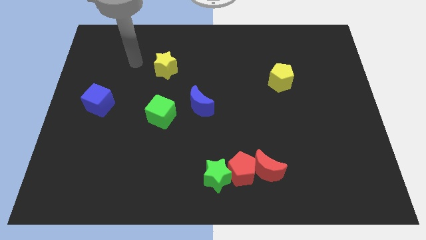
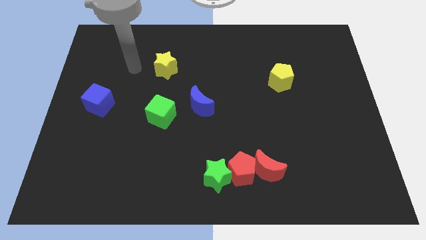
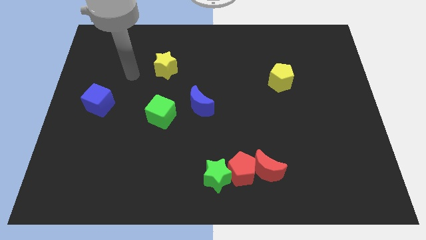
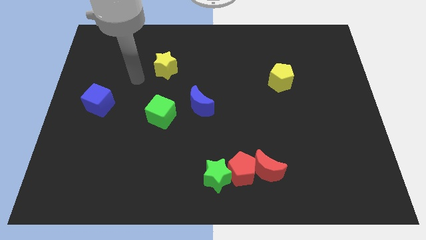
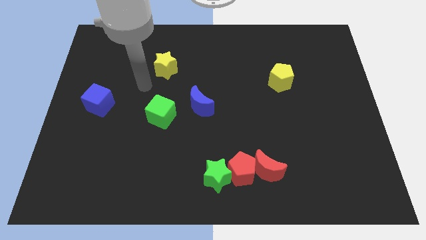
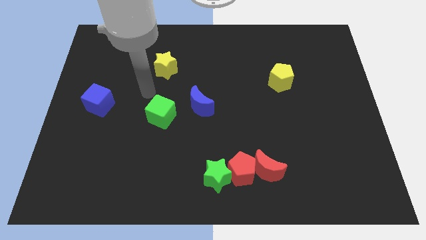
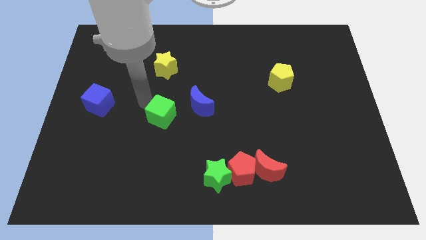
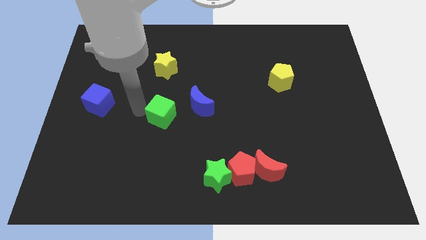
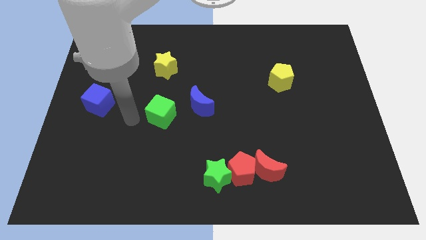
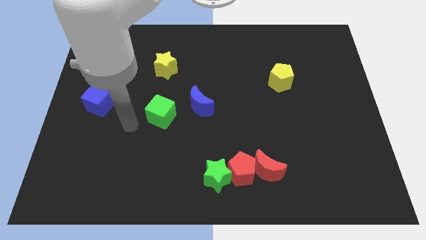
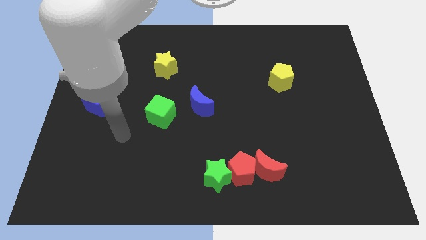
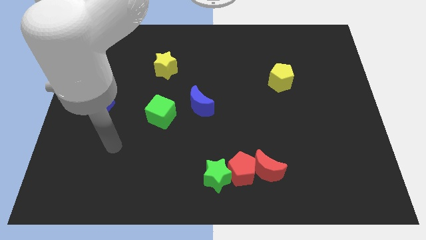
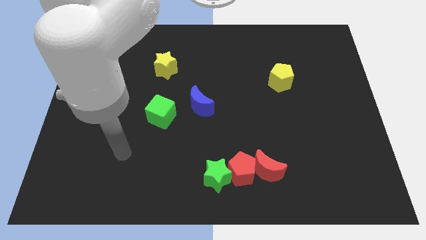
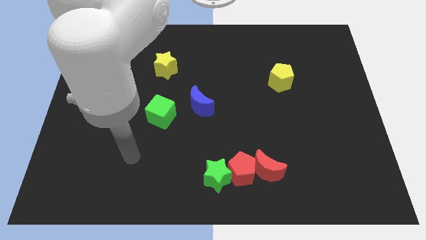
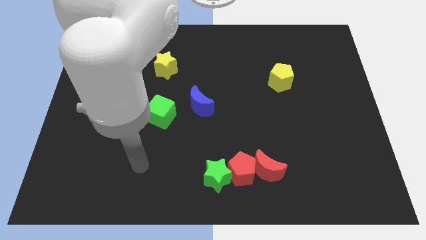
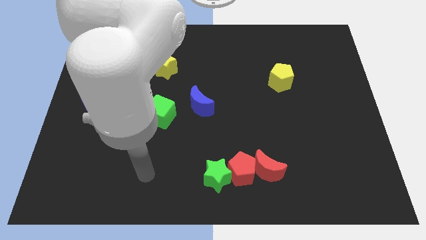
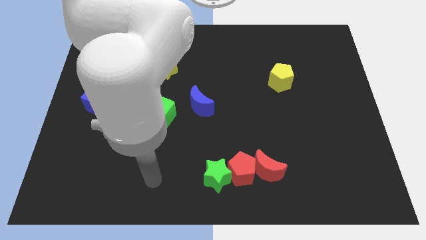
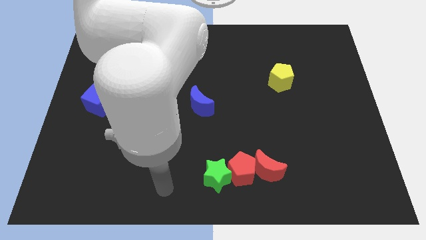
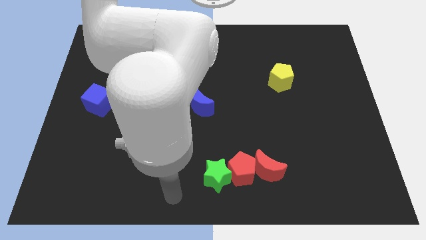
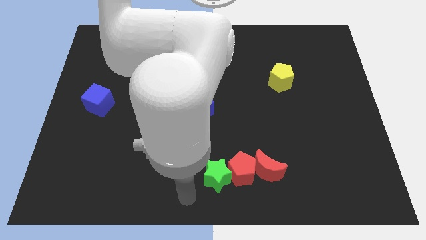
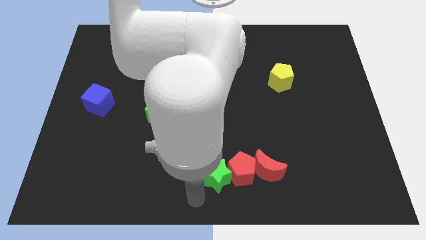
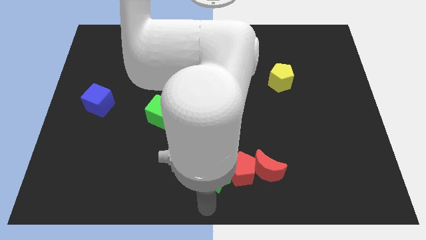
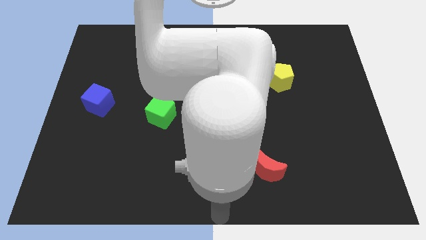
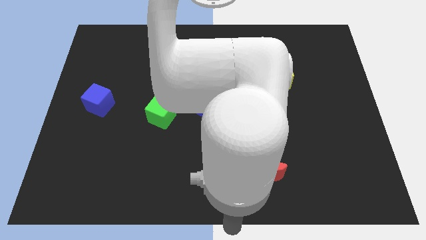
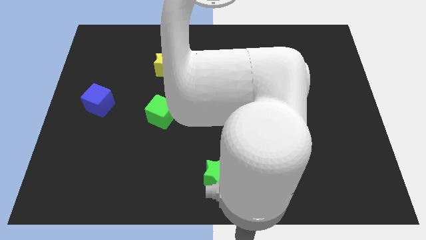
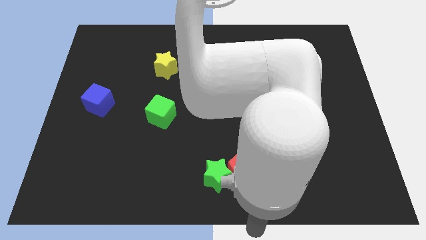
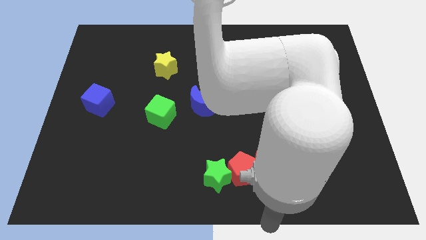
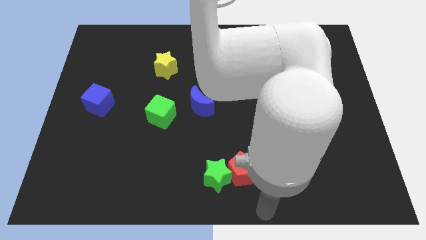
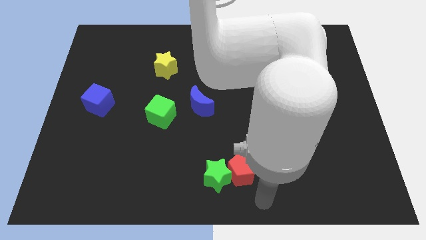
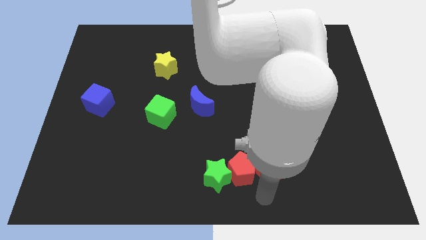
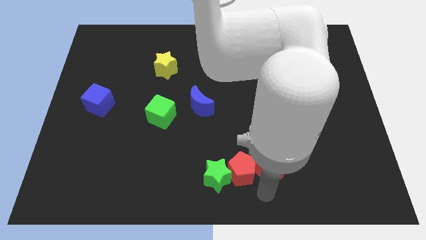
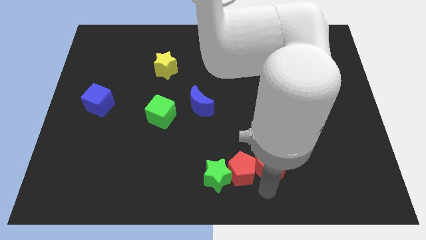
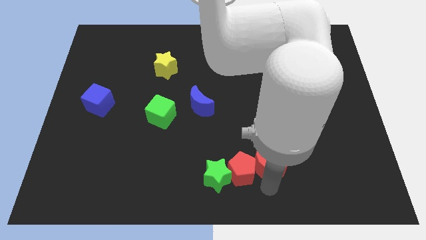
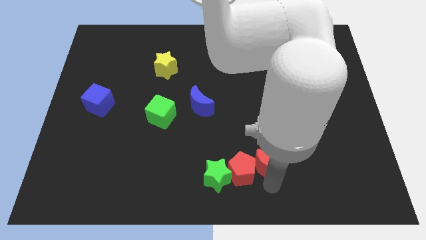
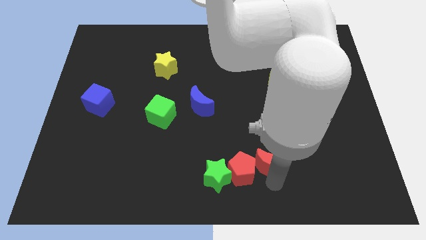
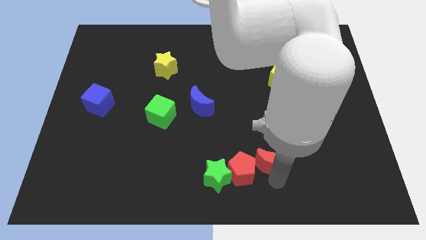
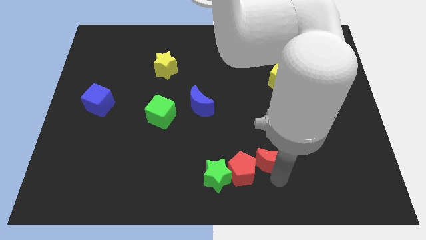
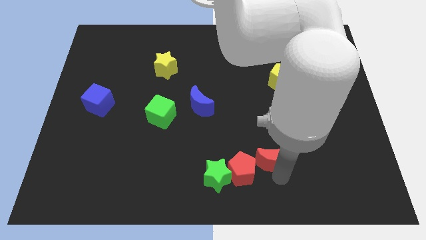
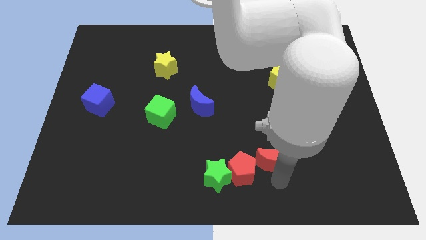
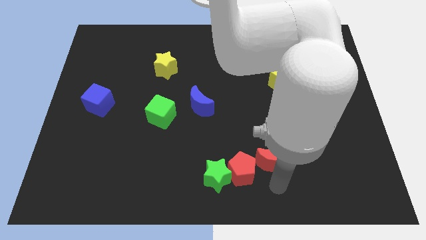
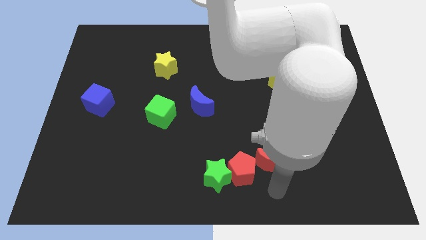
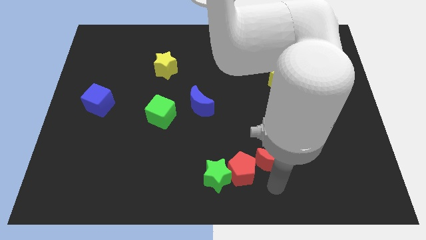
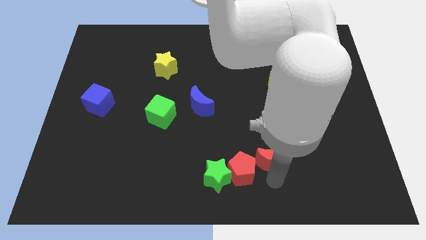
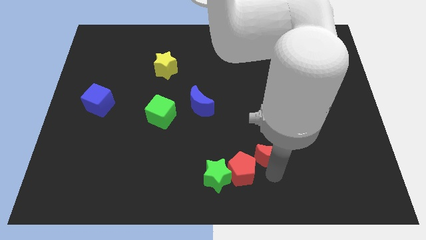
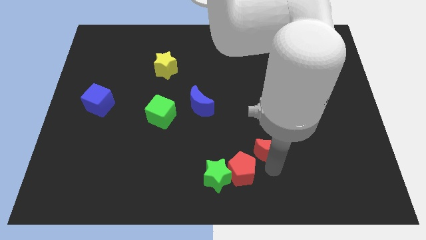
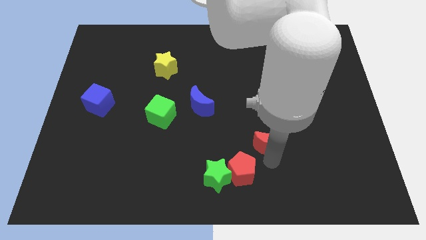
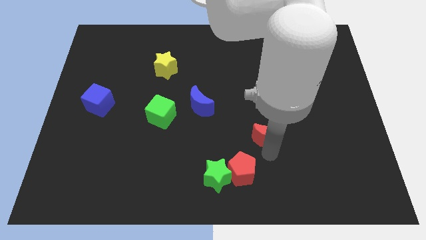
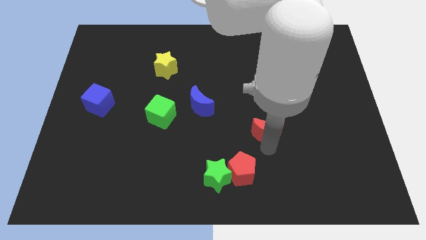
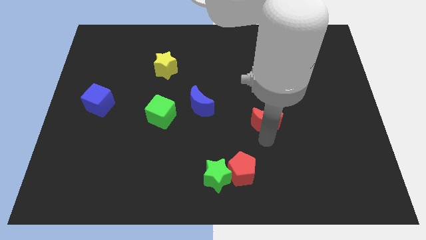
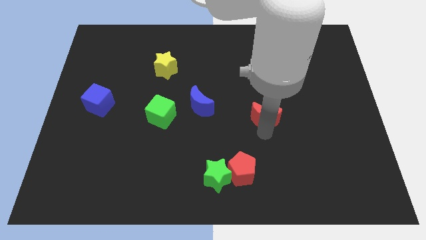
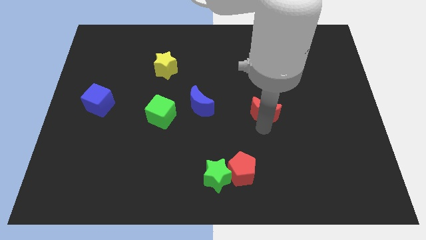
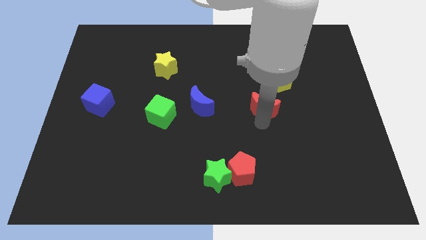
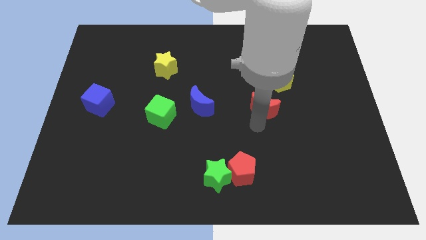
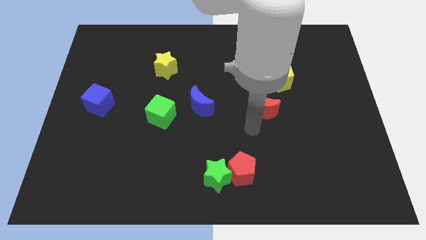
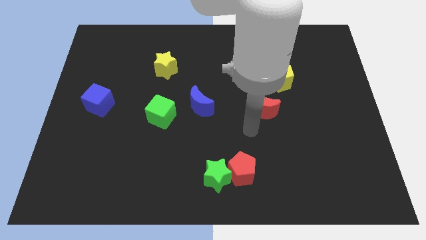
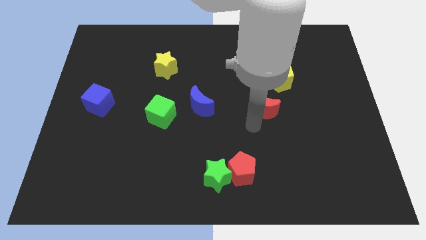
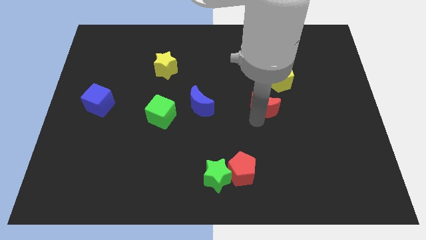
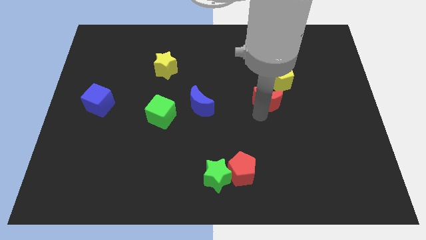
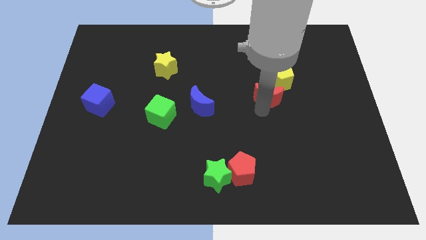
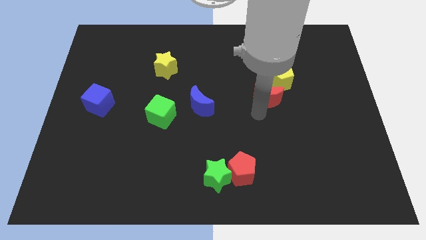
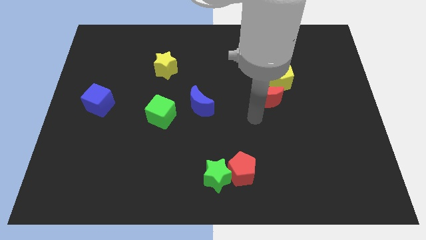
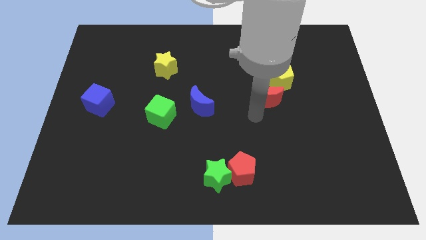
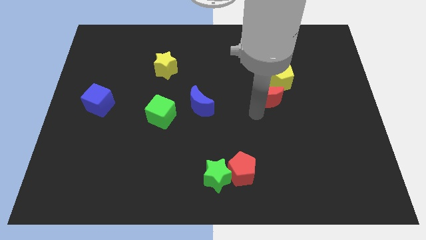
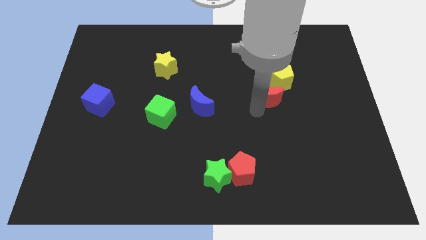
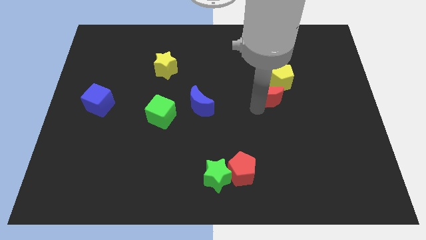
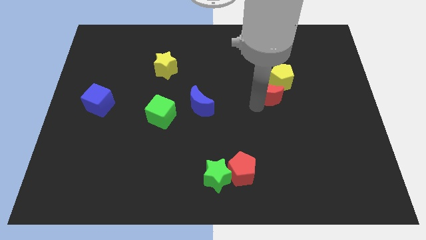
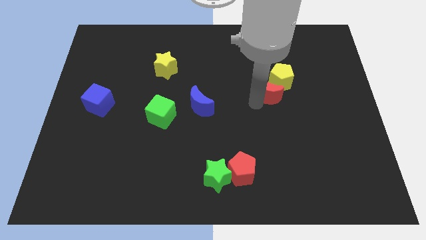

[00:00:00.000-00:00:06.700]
move the red moon to the yellow pentagon

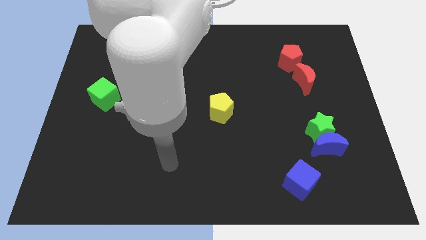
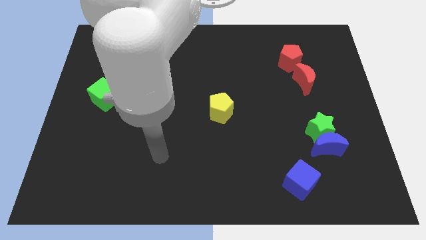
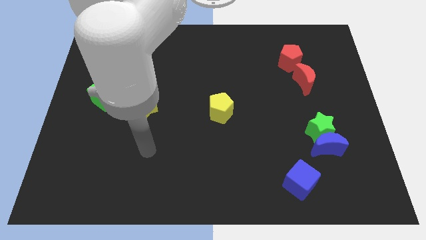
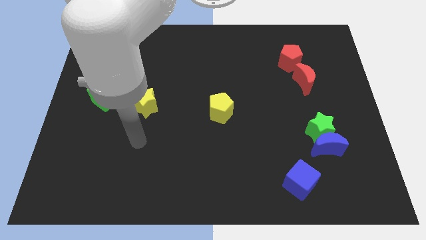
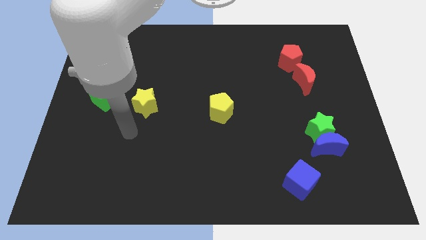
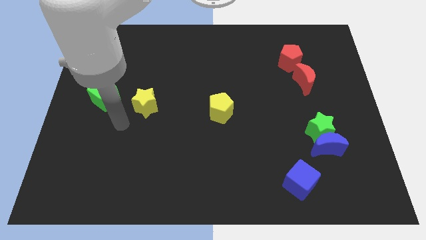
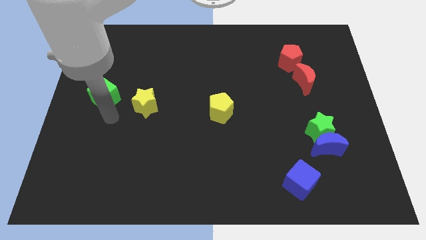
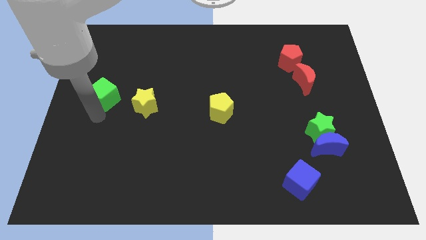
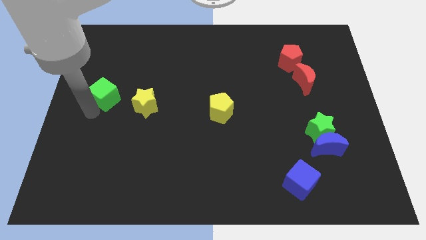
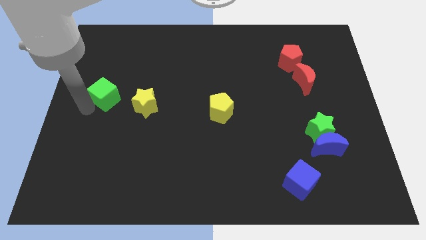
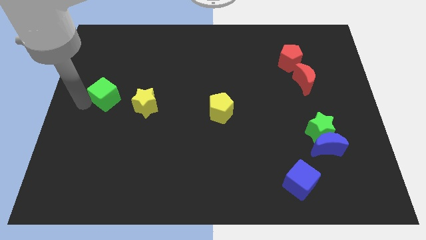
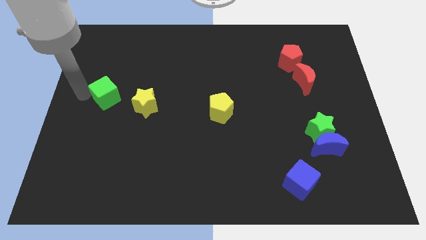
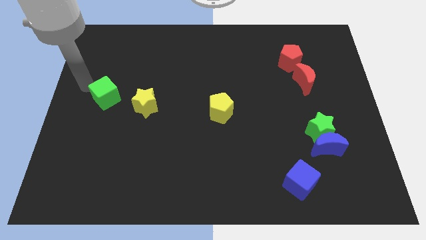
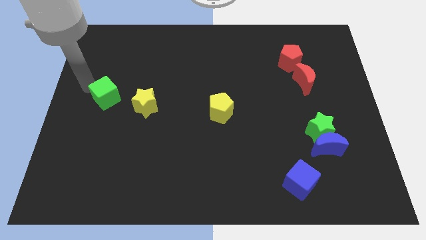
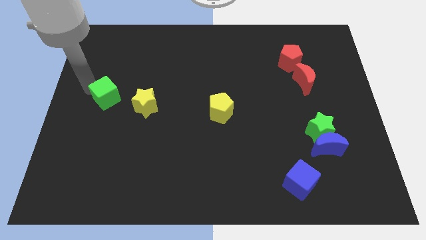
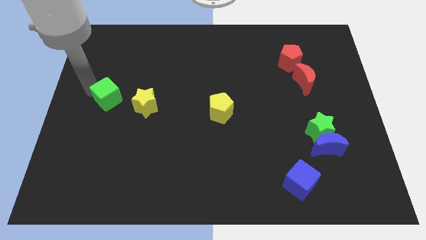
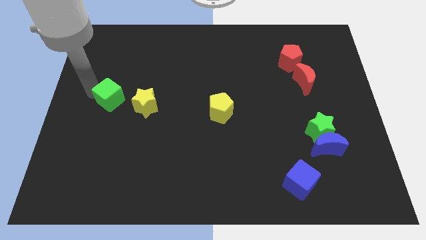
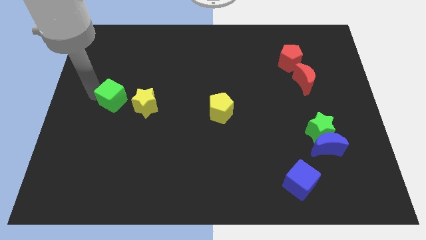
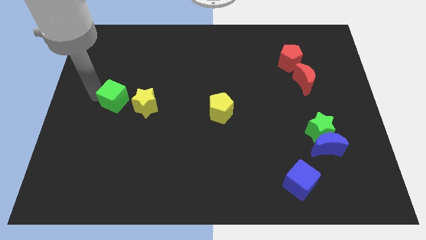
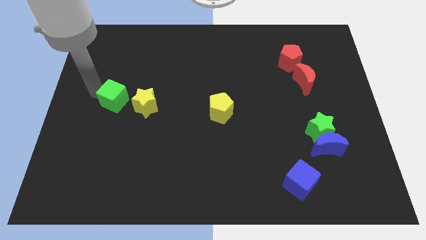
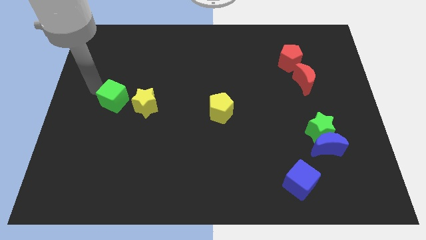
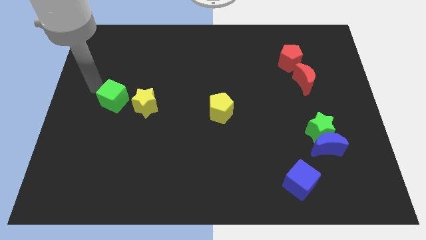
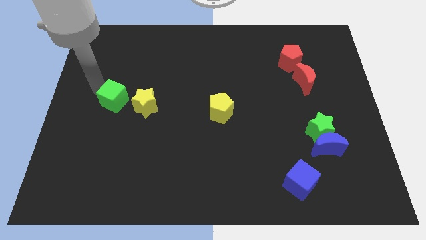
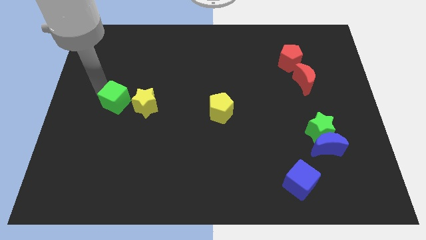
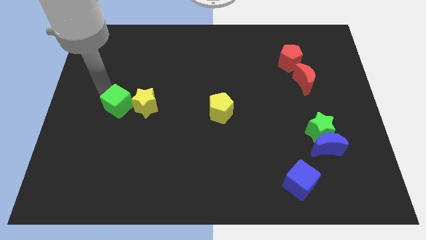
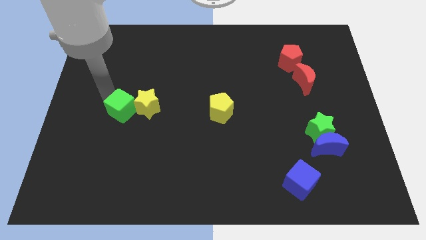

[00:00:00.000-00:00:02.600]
push the green cube close to the yellow star
